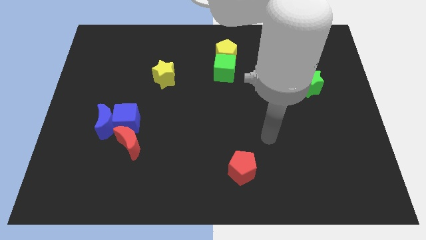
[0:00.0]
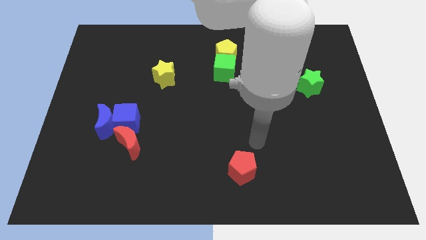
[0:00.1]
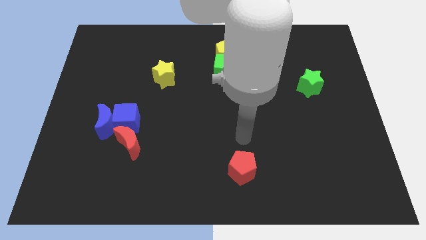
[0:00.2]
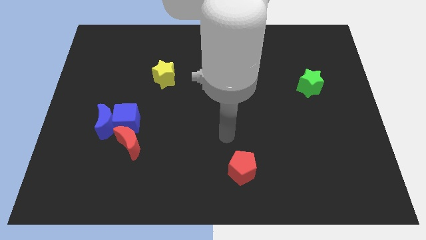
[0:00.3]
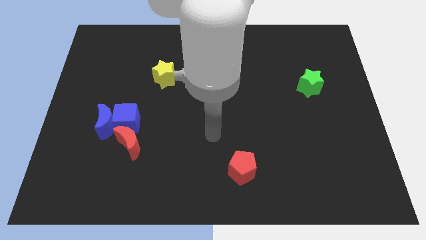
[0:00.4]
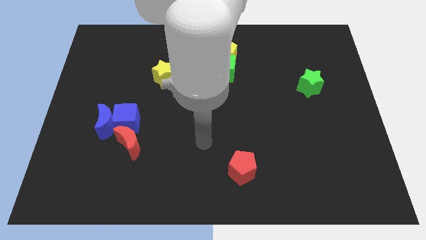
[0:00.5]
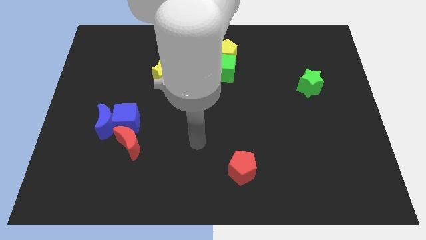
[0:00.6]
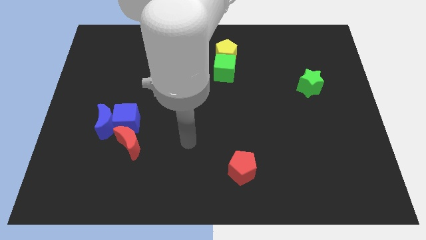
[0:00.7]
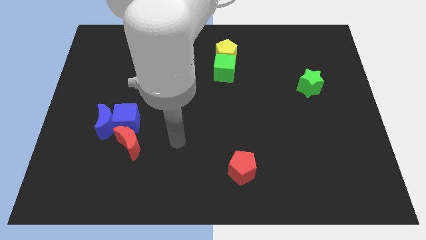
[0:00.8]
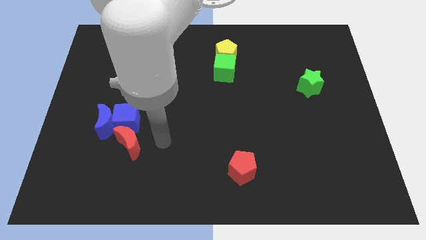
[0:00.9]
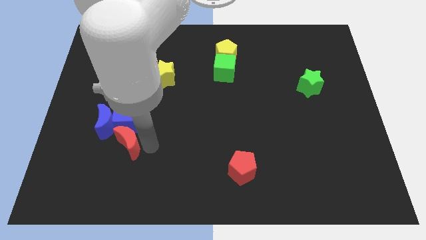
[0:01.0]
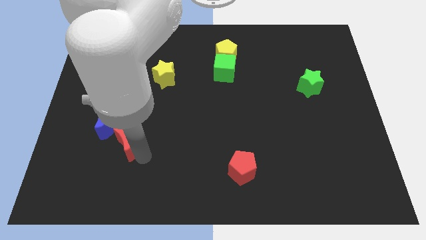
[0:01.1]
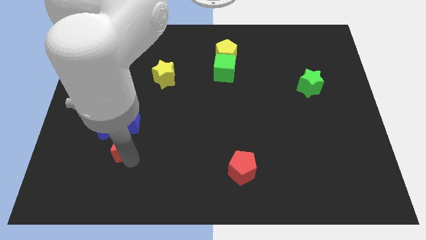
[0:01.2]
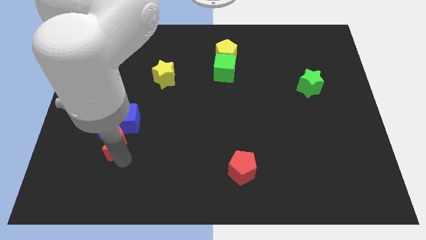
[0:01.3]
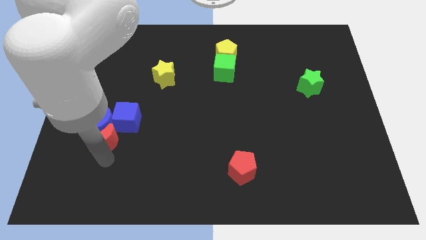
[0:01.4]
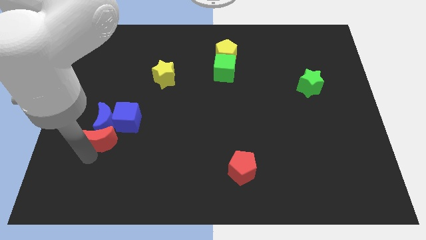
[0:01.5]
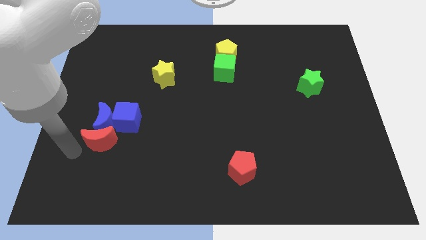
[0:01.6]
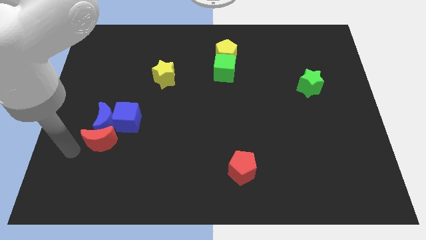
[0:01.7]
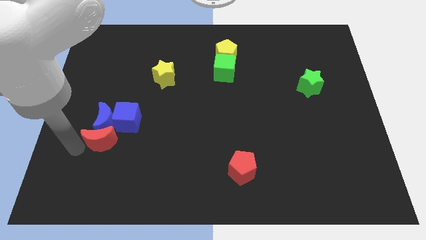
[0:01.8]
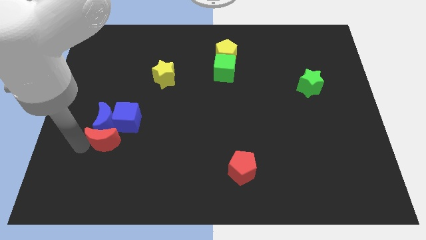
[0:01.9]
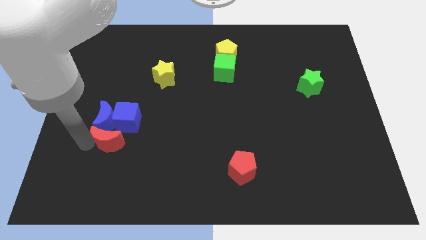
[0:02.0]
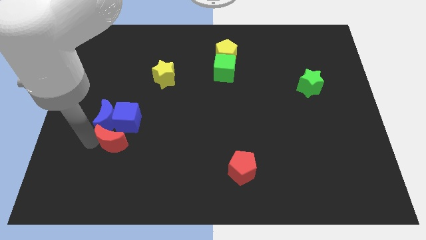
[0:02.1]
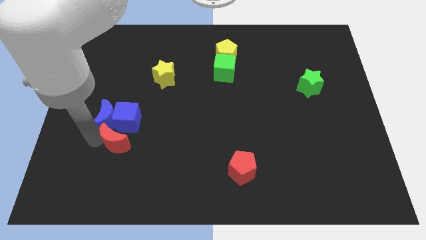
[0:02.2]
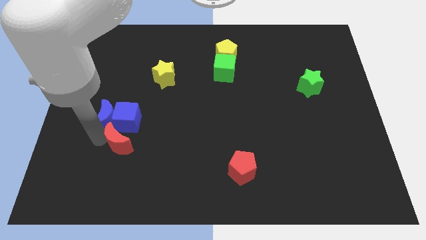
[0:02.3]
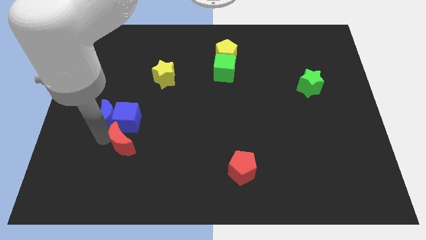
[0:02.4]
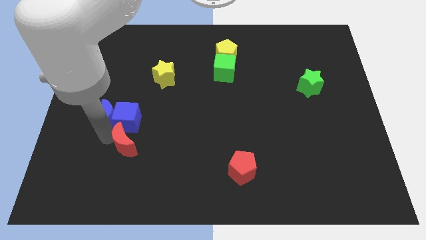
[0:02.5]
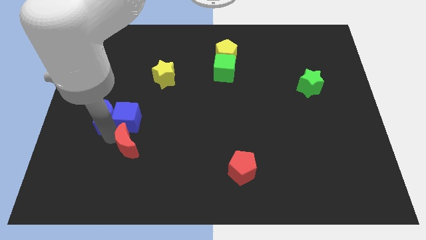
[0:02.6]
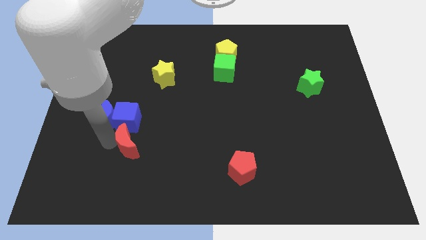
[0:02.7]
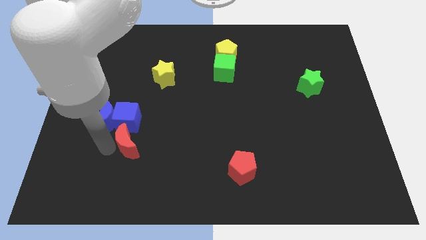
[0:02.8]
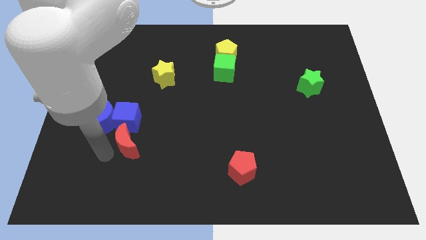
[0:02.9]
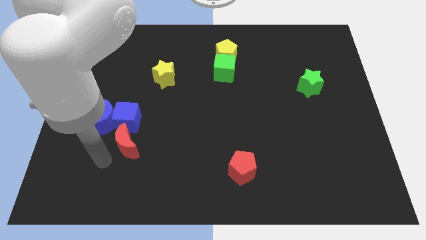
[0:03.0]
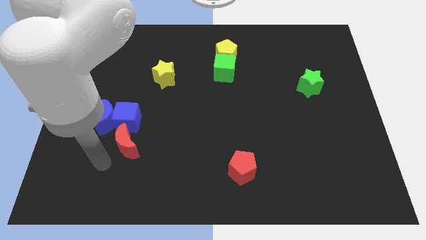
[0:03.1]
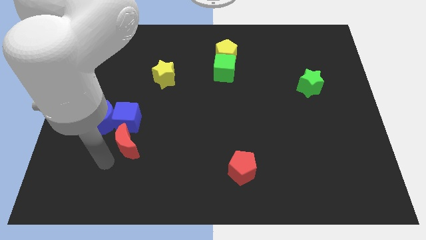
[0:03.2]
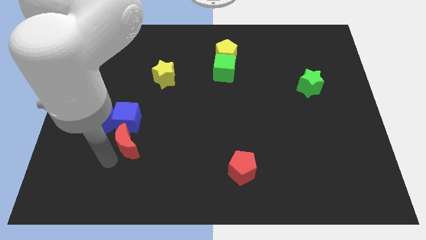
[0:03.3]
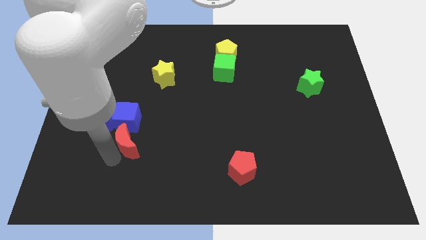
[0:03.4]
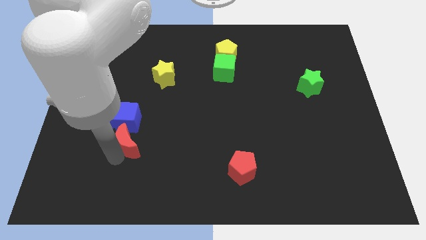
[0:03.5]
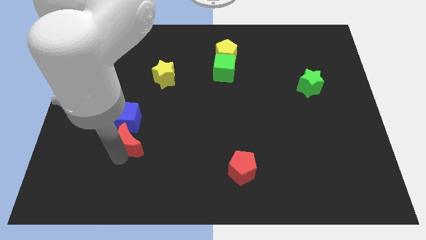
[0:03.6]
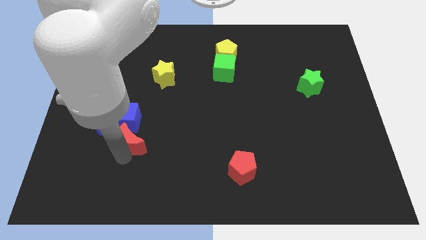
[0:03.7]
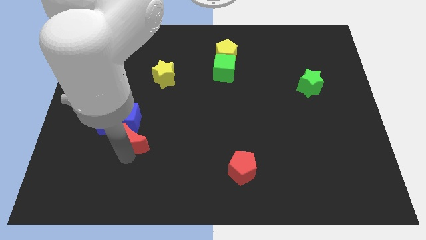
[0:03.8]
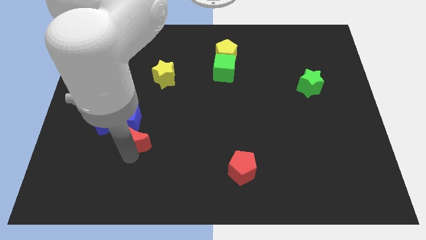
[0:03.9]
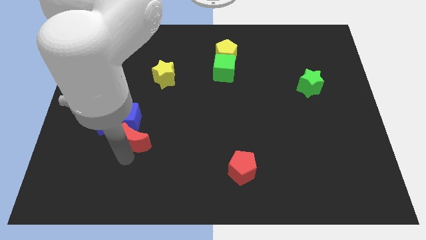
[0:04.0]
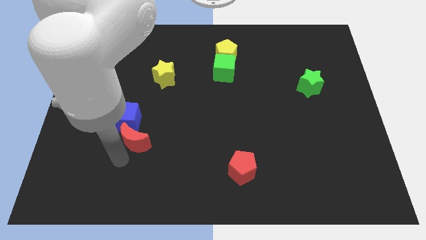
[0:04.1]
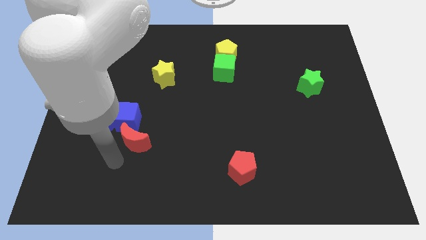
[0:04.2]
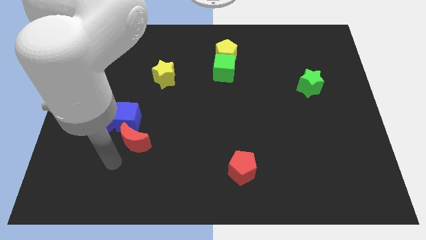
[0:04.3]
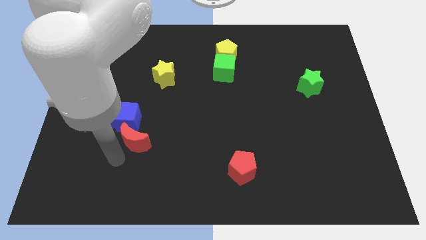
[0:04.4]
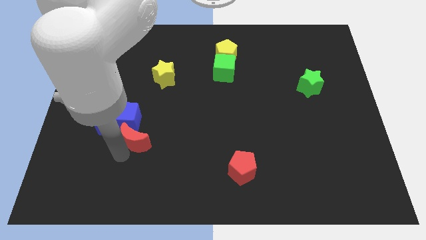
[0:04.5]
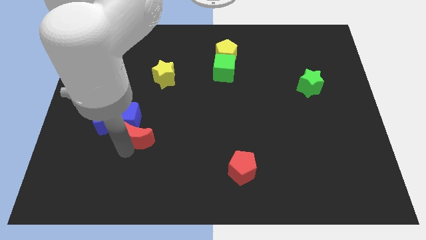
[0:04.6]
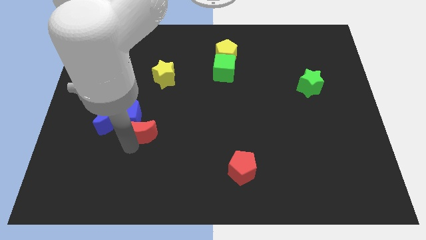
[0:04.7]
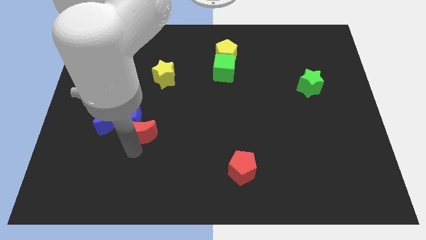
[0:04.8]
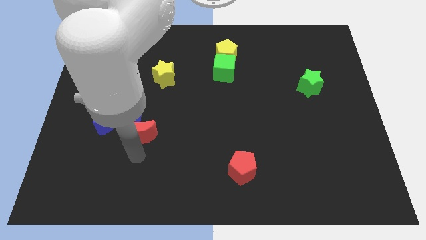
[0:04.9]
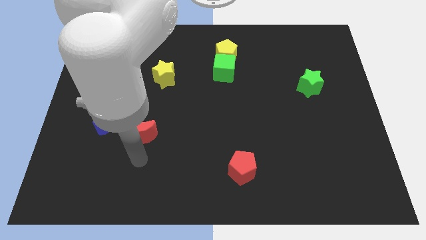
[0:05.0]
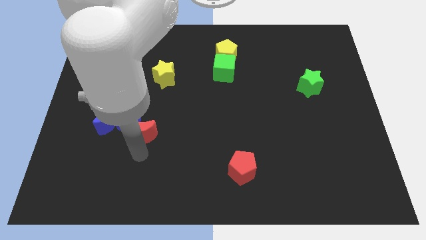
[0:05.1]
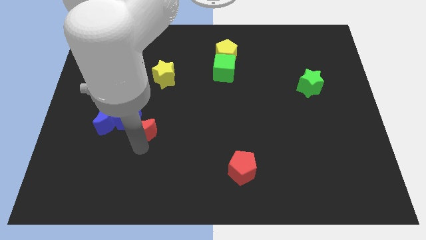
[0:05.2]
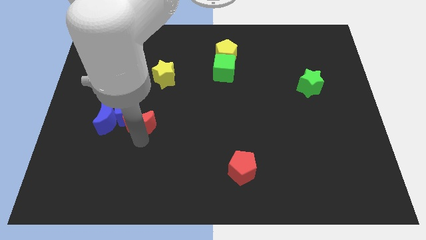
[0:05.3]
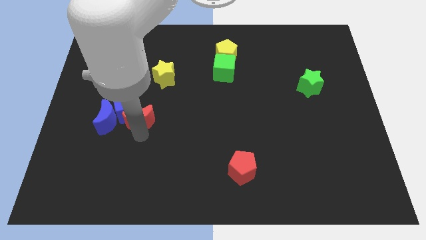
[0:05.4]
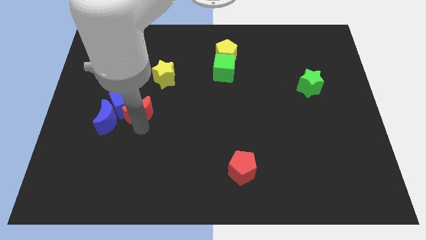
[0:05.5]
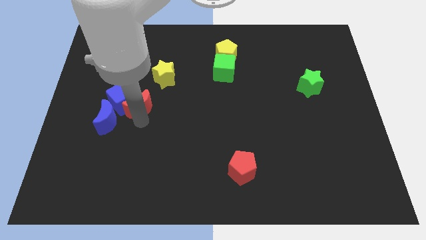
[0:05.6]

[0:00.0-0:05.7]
move the red moon to the bottom left side of the yellow star

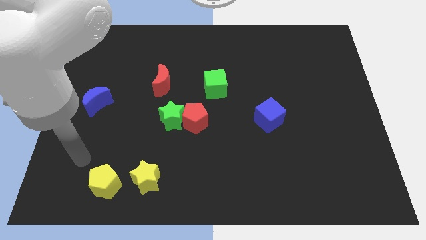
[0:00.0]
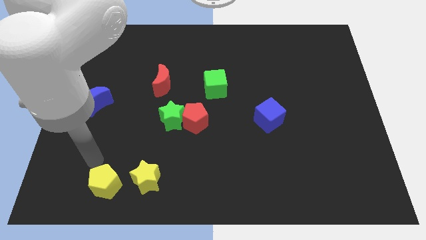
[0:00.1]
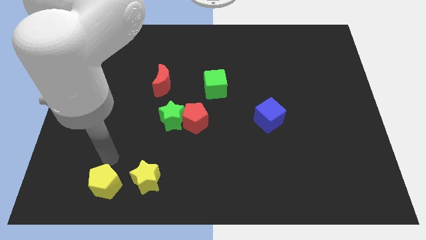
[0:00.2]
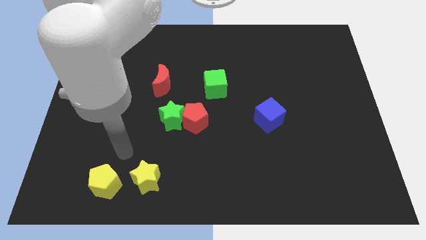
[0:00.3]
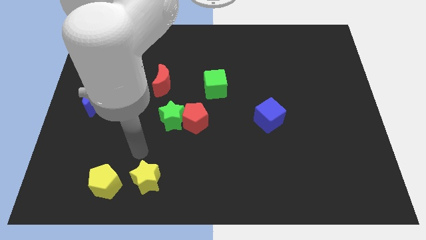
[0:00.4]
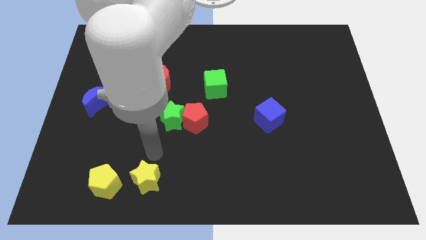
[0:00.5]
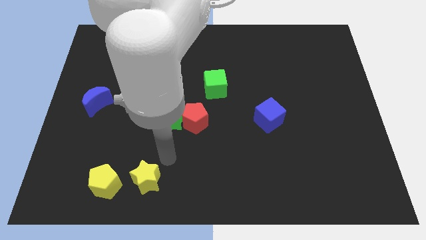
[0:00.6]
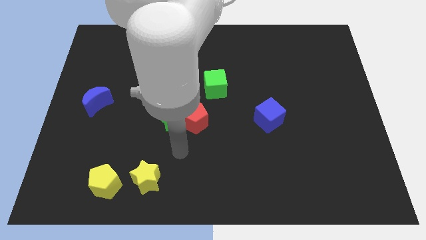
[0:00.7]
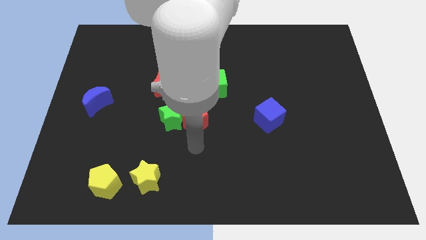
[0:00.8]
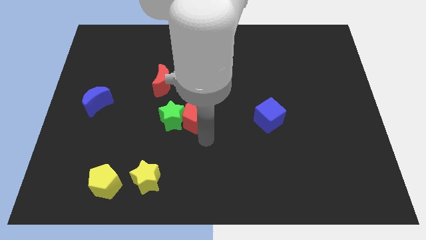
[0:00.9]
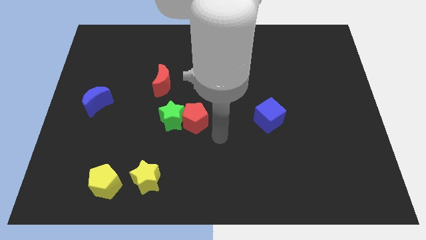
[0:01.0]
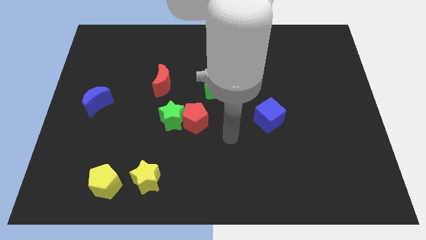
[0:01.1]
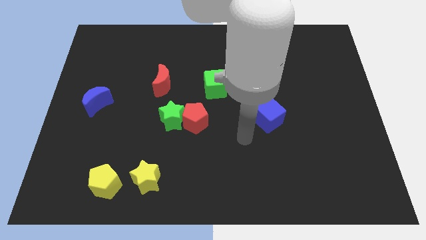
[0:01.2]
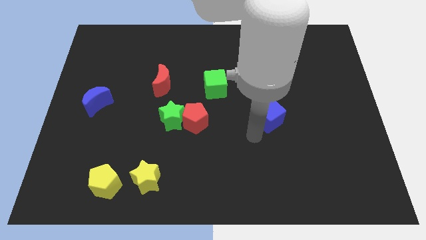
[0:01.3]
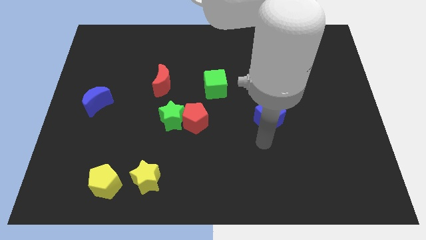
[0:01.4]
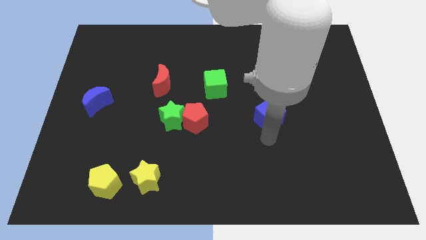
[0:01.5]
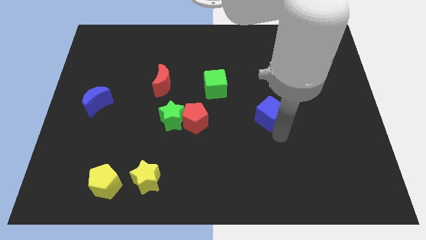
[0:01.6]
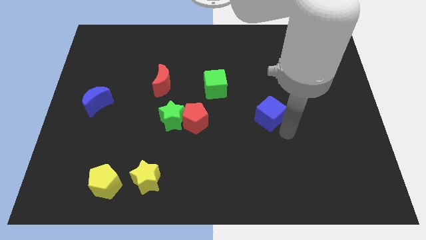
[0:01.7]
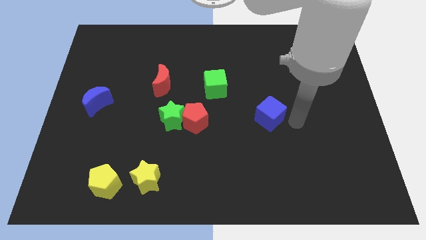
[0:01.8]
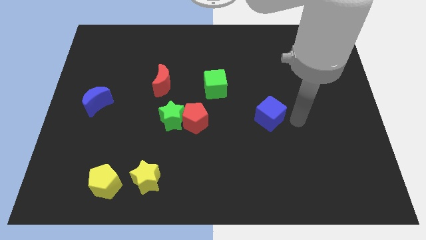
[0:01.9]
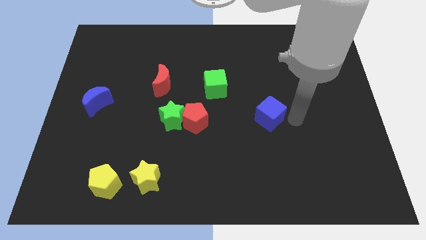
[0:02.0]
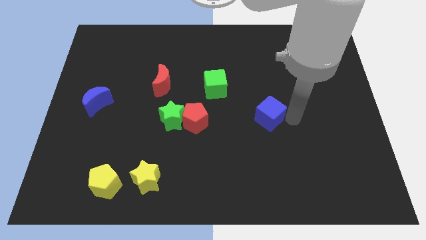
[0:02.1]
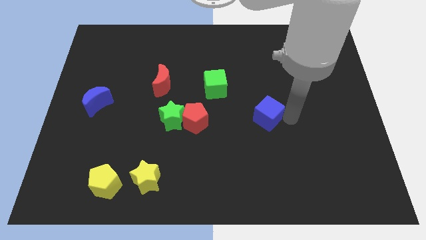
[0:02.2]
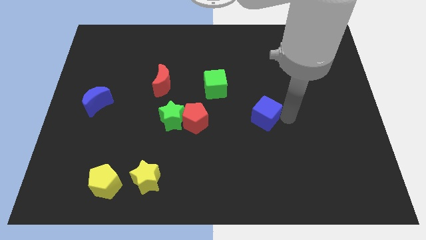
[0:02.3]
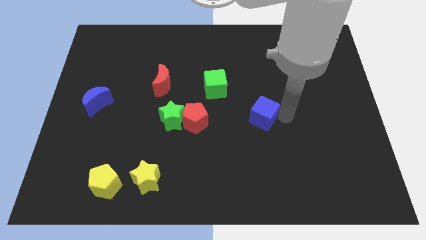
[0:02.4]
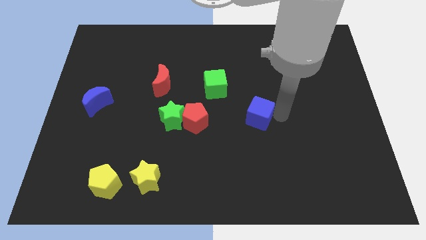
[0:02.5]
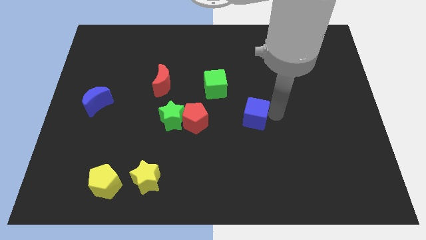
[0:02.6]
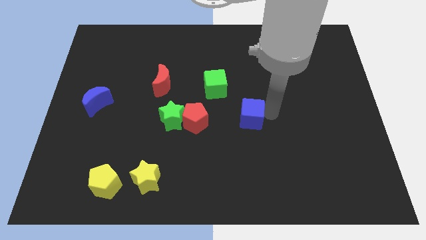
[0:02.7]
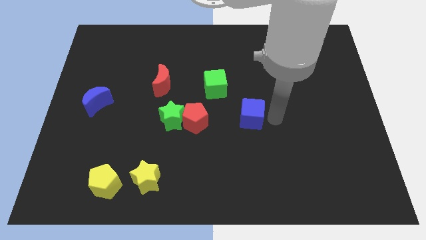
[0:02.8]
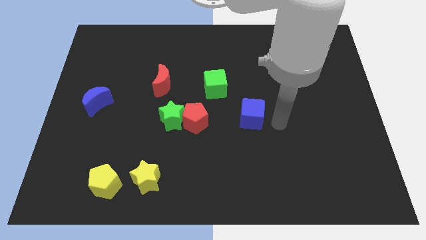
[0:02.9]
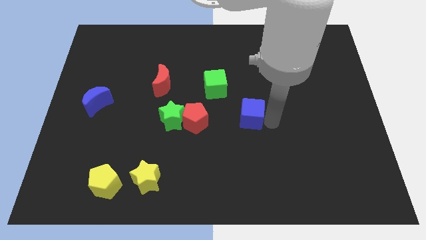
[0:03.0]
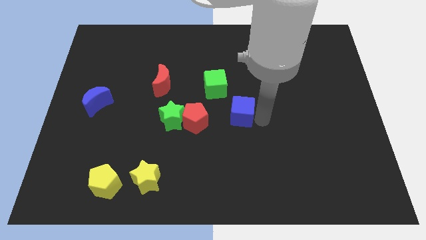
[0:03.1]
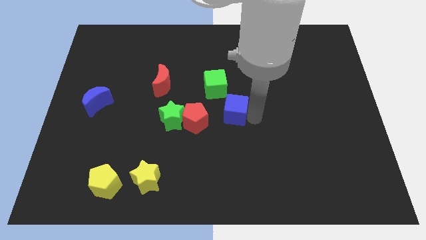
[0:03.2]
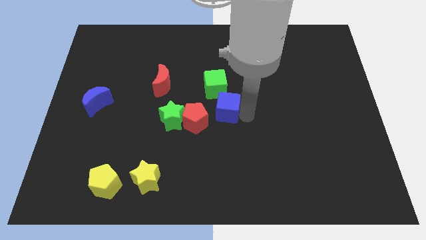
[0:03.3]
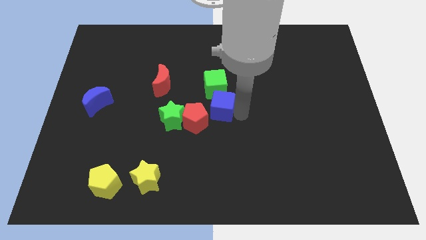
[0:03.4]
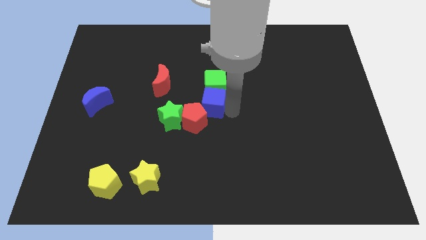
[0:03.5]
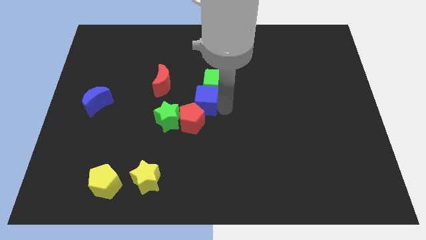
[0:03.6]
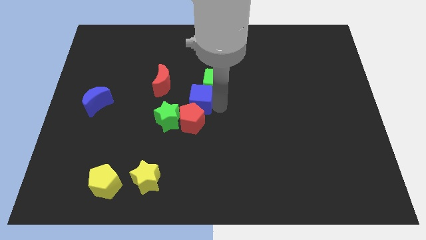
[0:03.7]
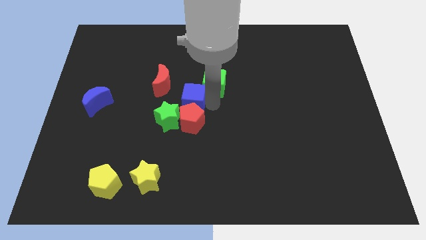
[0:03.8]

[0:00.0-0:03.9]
slide the blue cube to the top left side of the red pentagon
